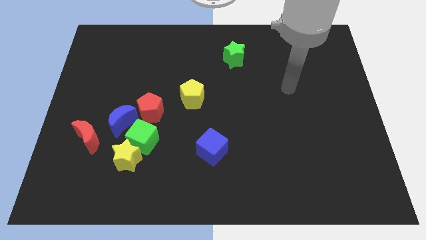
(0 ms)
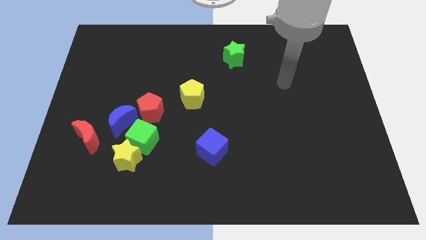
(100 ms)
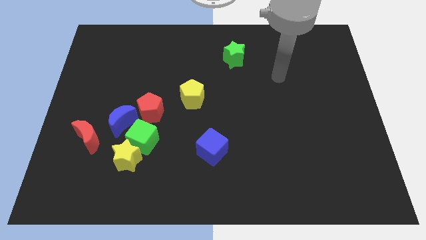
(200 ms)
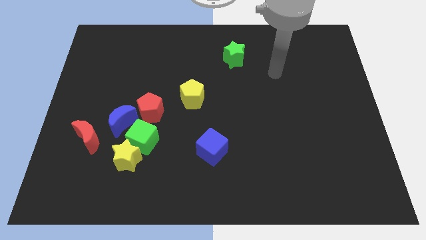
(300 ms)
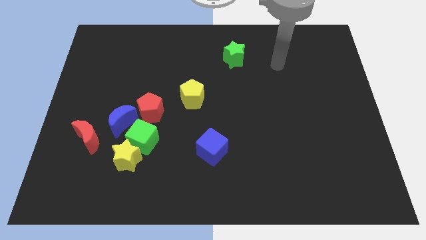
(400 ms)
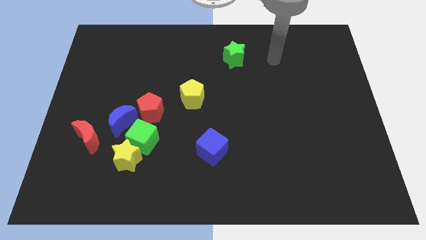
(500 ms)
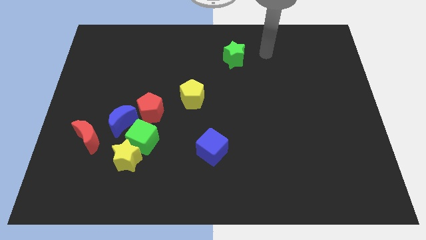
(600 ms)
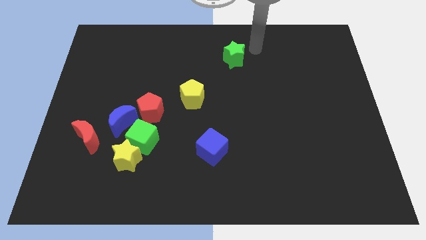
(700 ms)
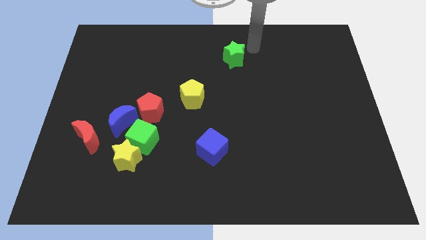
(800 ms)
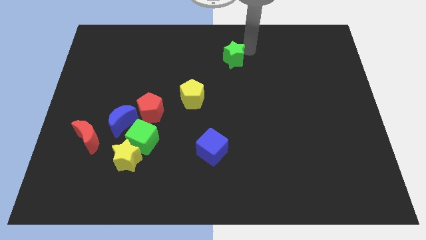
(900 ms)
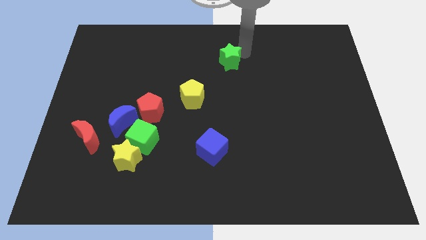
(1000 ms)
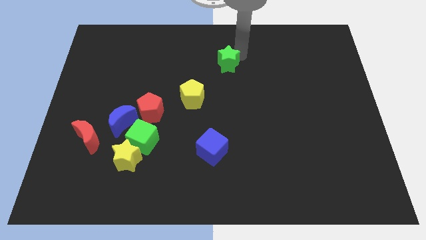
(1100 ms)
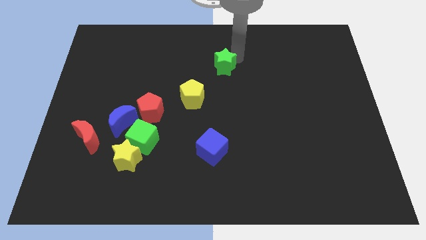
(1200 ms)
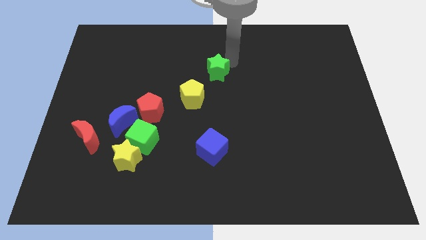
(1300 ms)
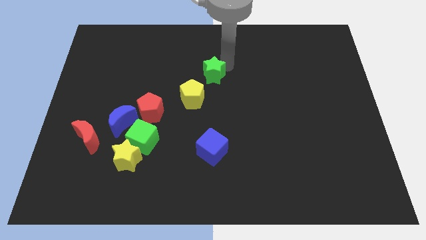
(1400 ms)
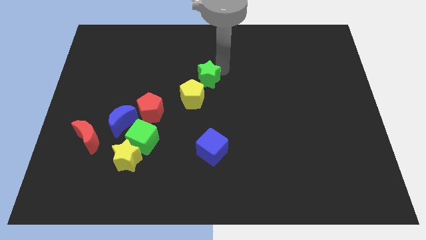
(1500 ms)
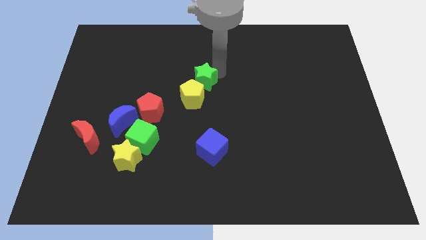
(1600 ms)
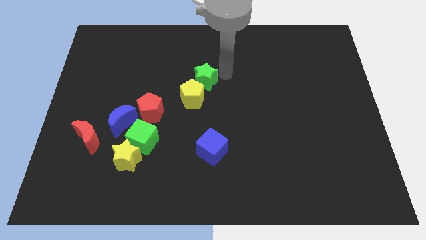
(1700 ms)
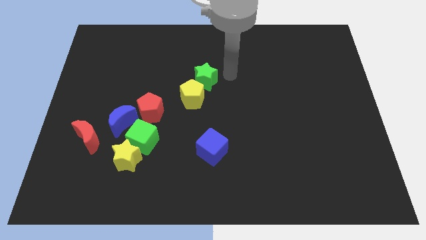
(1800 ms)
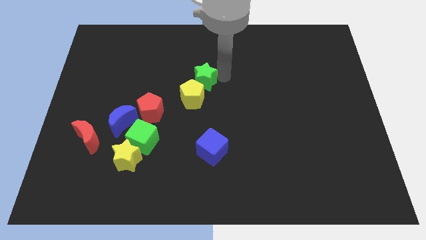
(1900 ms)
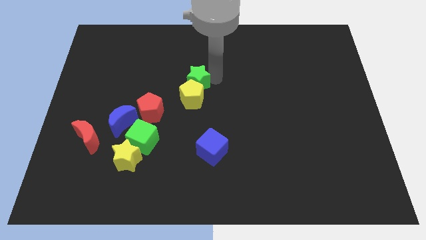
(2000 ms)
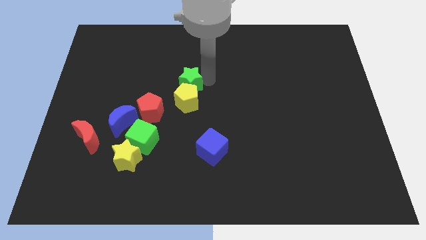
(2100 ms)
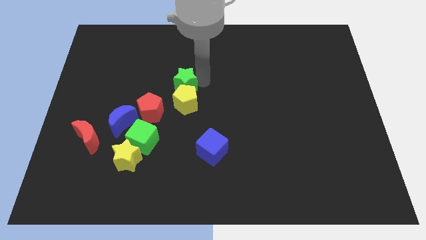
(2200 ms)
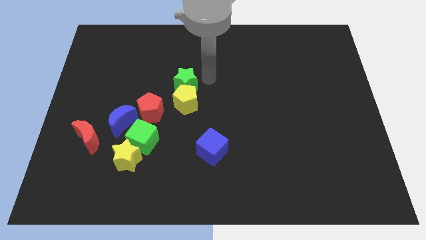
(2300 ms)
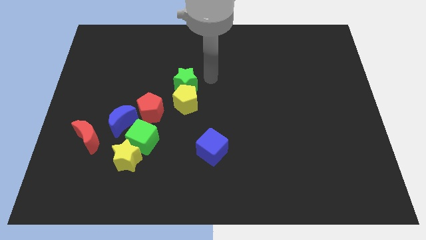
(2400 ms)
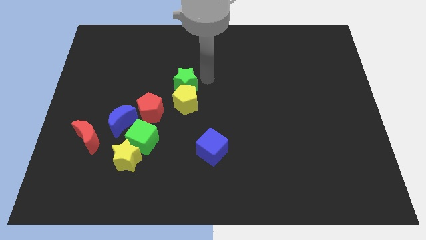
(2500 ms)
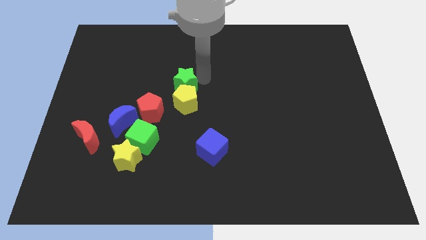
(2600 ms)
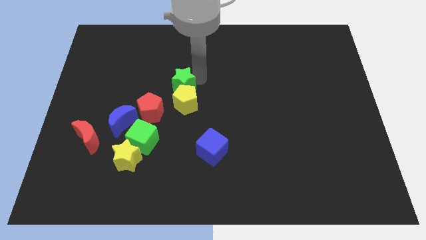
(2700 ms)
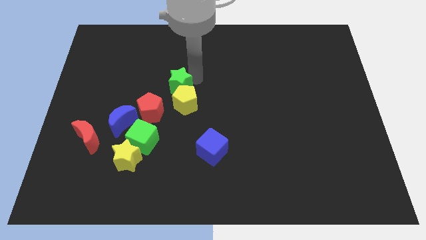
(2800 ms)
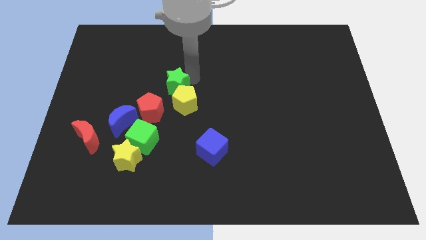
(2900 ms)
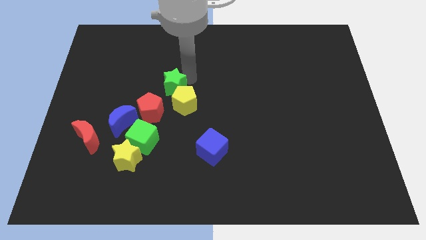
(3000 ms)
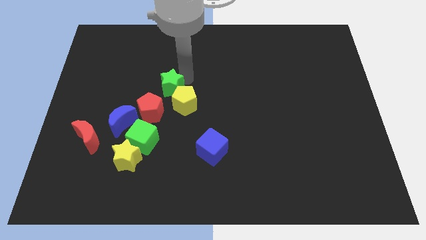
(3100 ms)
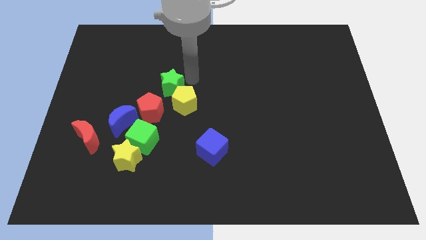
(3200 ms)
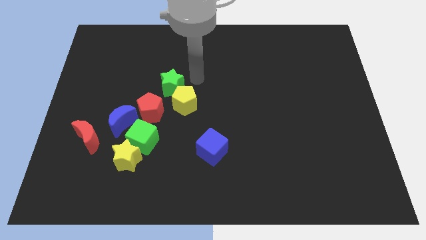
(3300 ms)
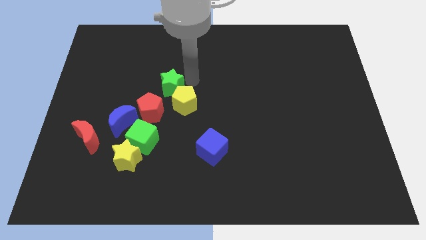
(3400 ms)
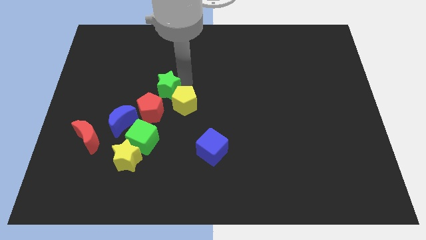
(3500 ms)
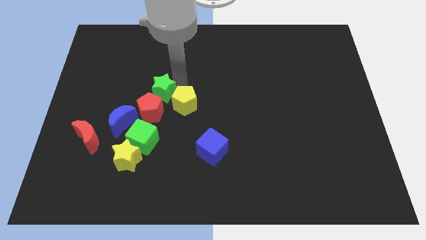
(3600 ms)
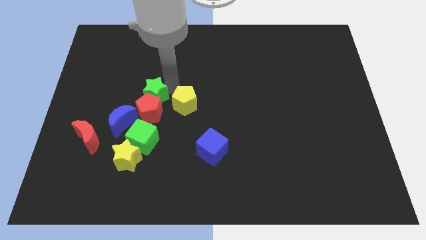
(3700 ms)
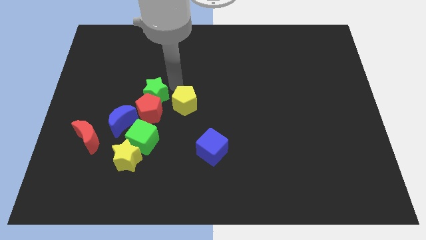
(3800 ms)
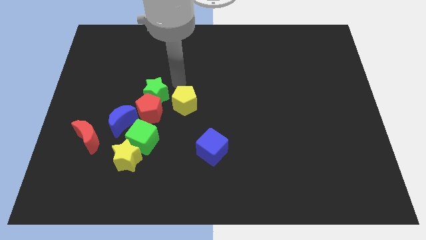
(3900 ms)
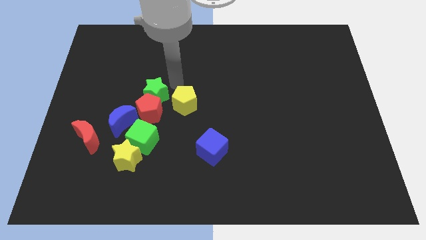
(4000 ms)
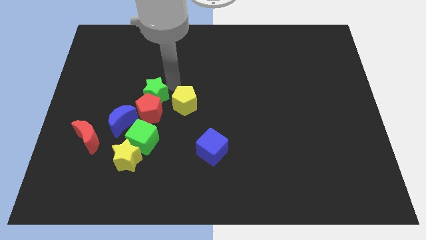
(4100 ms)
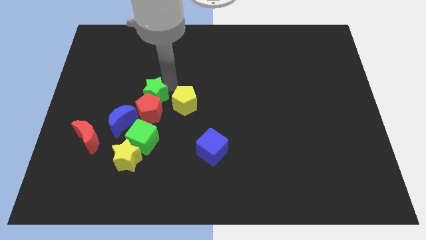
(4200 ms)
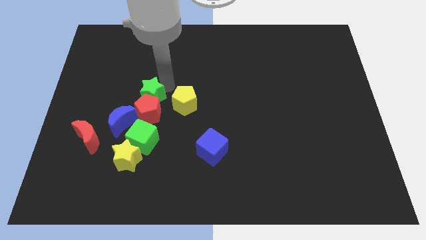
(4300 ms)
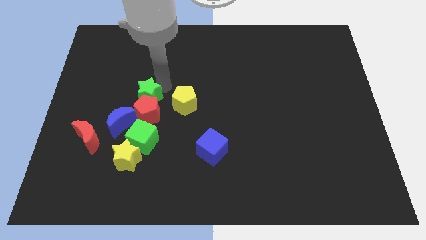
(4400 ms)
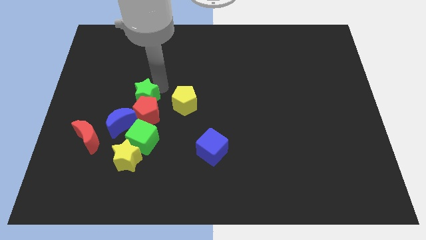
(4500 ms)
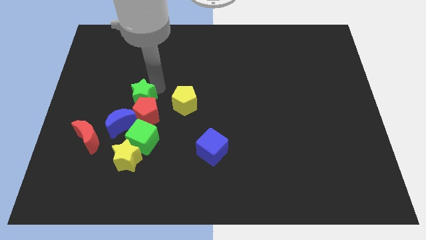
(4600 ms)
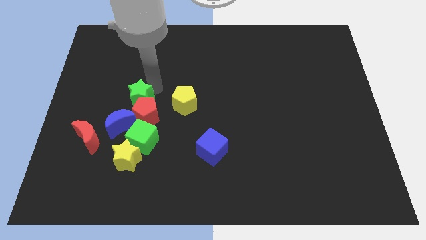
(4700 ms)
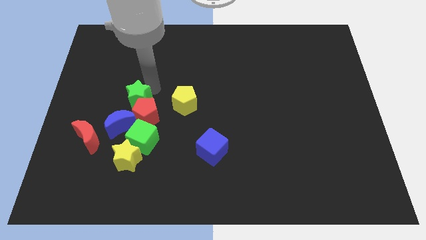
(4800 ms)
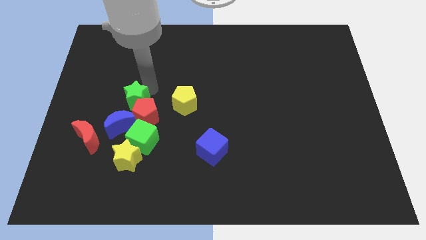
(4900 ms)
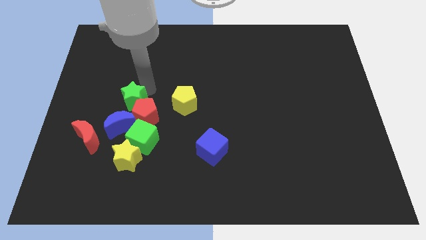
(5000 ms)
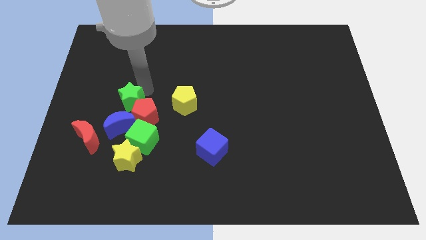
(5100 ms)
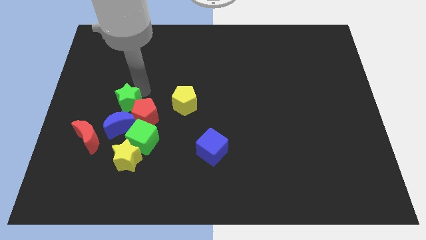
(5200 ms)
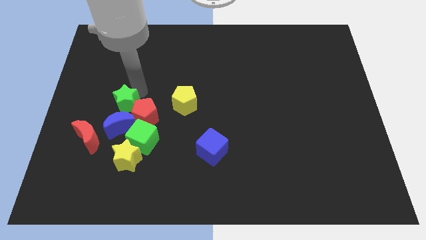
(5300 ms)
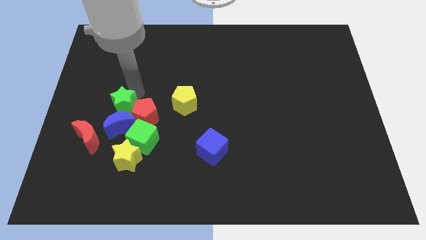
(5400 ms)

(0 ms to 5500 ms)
slide the green star next to the blue moon

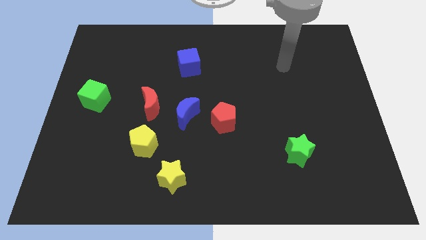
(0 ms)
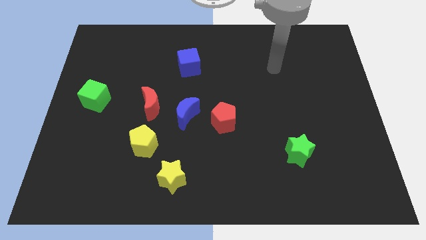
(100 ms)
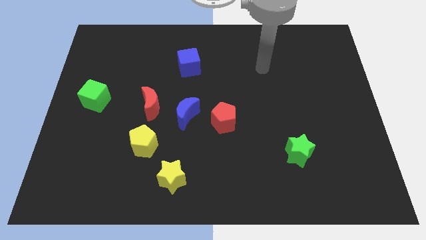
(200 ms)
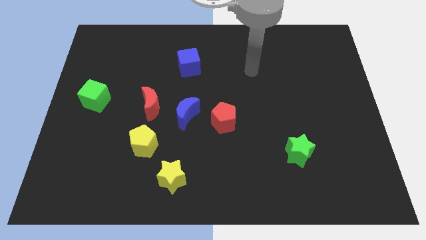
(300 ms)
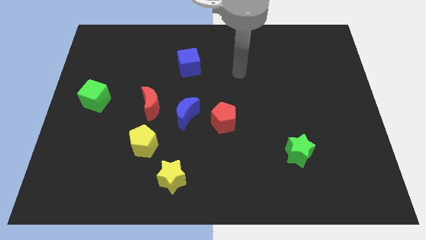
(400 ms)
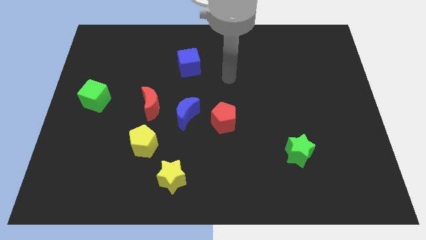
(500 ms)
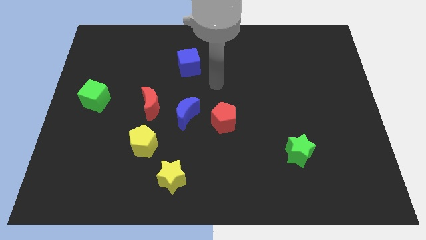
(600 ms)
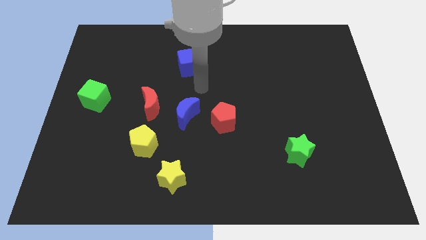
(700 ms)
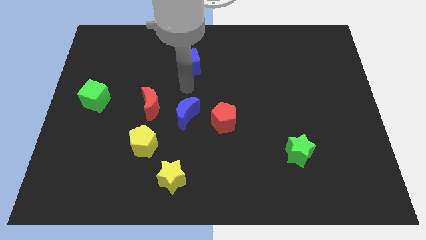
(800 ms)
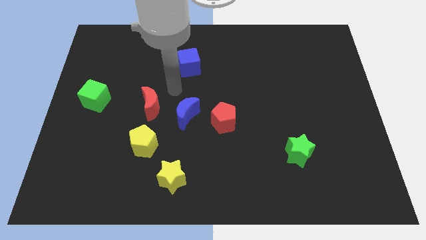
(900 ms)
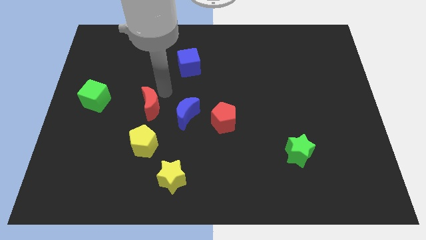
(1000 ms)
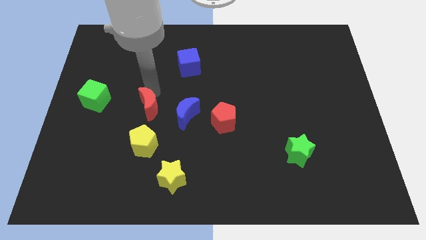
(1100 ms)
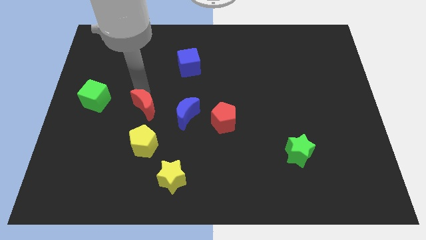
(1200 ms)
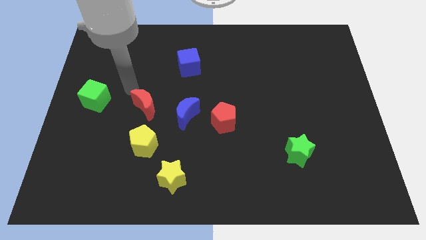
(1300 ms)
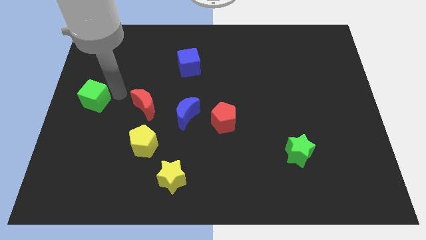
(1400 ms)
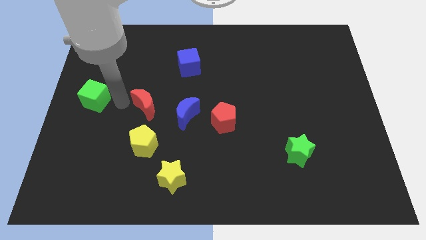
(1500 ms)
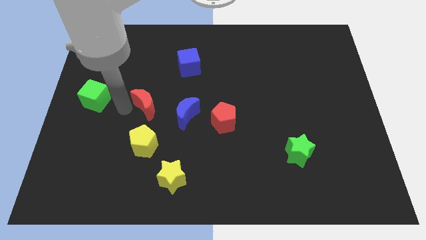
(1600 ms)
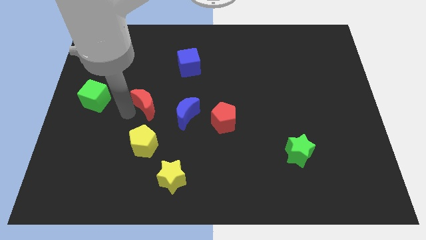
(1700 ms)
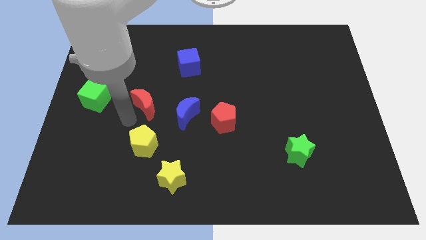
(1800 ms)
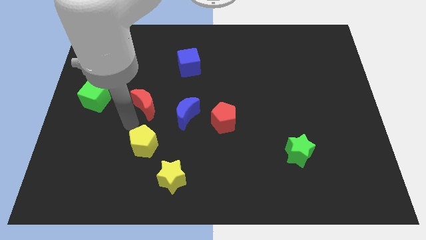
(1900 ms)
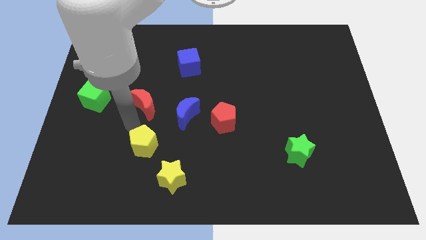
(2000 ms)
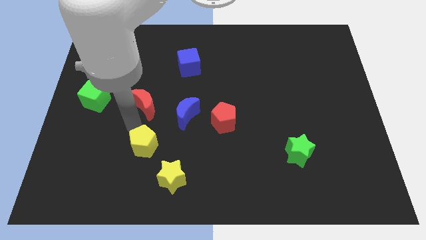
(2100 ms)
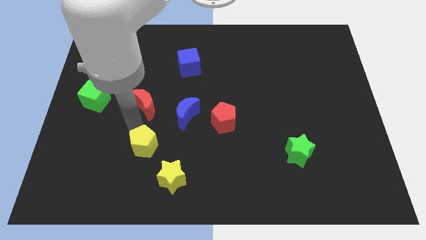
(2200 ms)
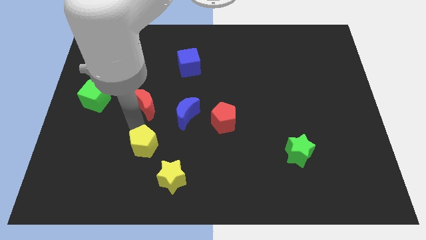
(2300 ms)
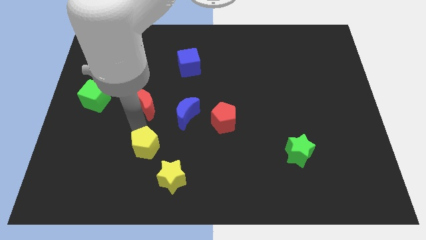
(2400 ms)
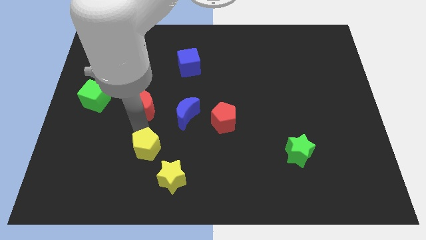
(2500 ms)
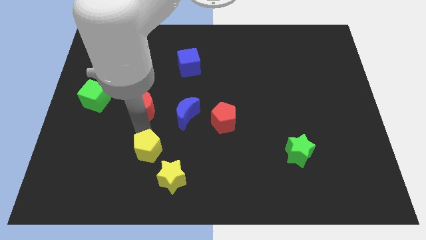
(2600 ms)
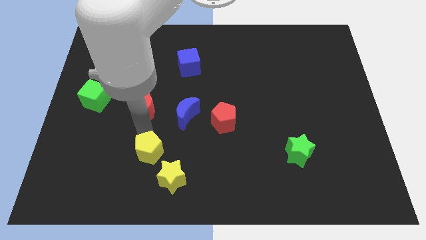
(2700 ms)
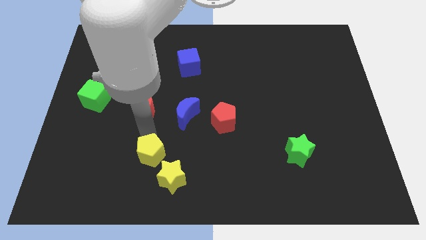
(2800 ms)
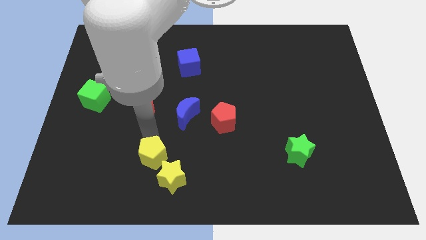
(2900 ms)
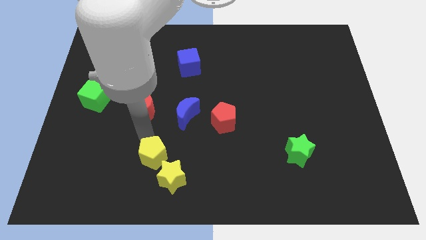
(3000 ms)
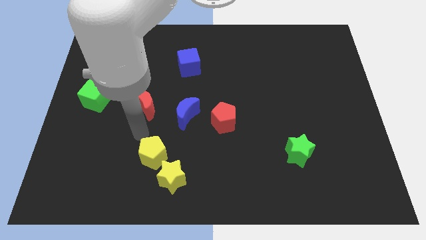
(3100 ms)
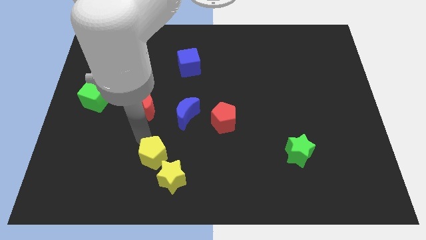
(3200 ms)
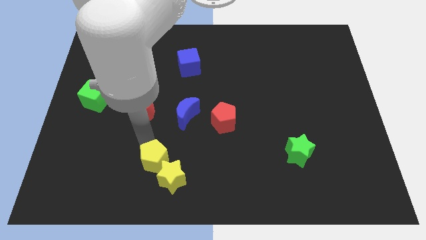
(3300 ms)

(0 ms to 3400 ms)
slide the yellow pentagon towards the yellow star
